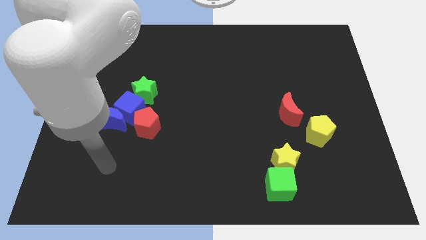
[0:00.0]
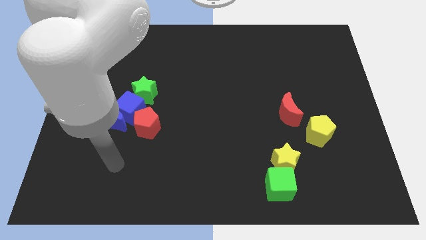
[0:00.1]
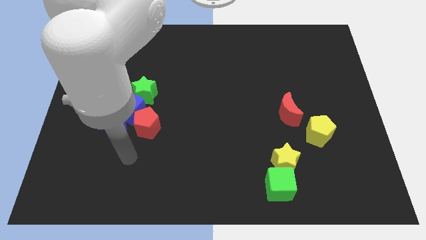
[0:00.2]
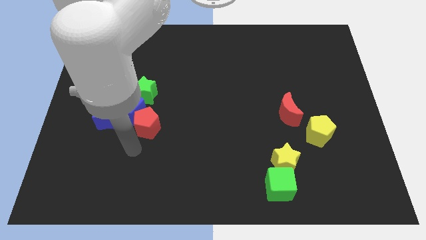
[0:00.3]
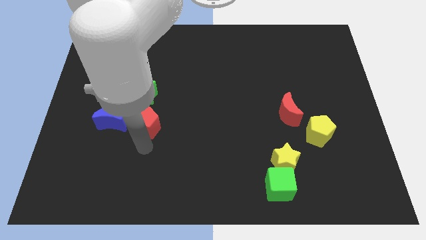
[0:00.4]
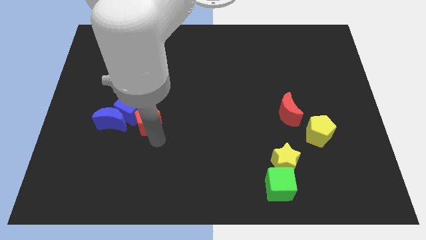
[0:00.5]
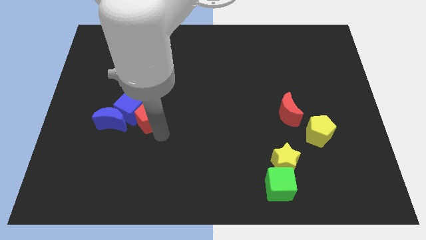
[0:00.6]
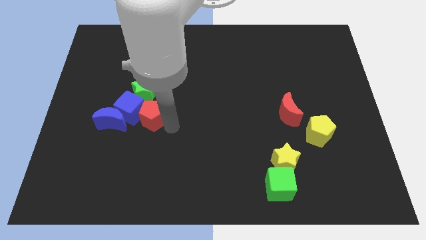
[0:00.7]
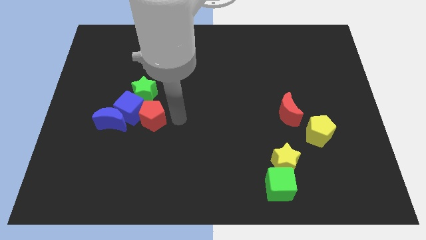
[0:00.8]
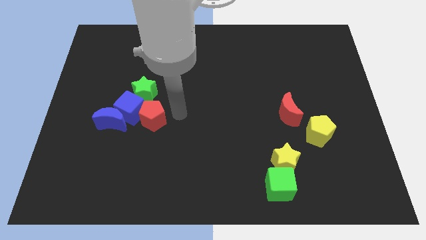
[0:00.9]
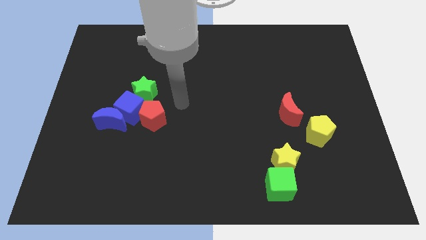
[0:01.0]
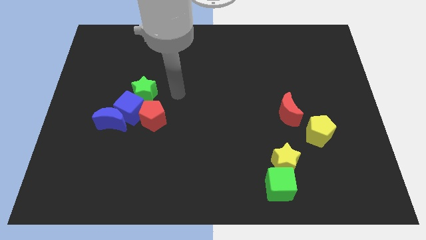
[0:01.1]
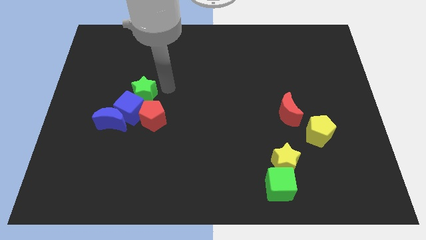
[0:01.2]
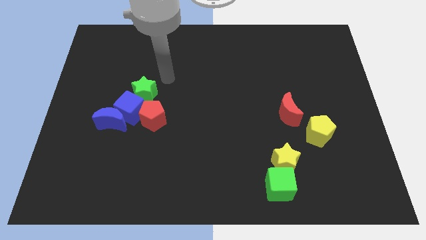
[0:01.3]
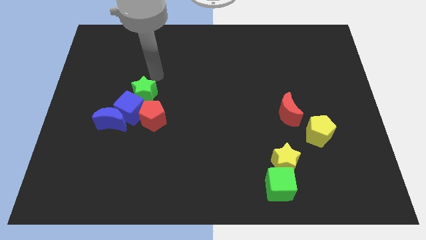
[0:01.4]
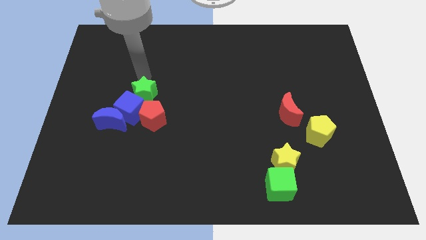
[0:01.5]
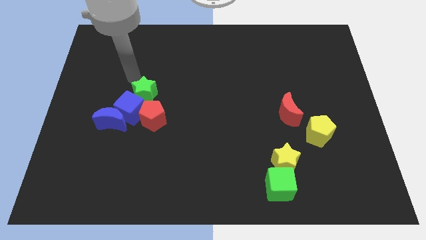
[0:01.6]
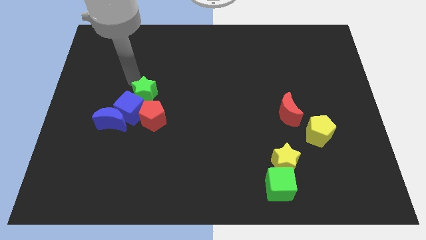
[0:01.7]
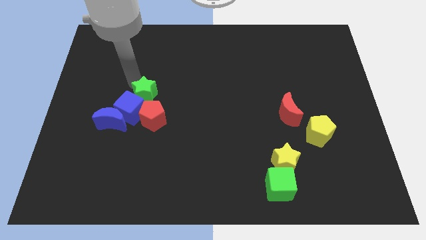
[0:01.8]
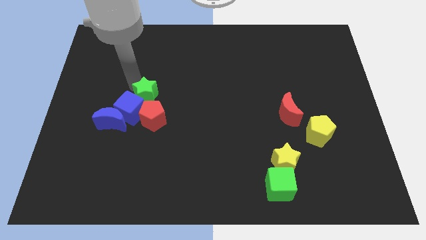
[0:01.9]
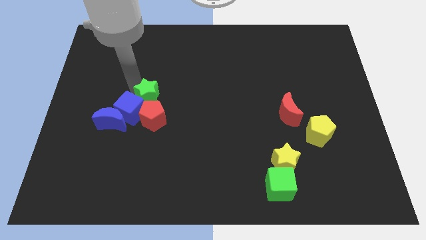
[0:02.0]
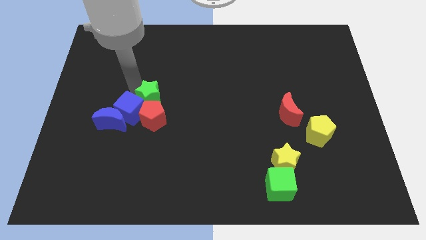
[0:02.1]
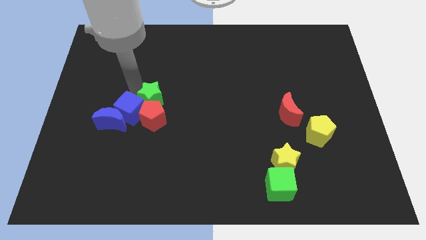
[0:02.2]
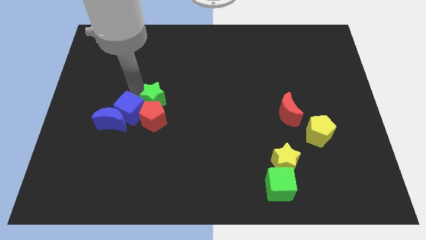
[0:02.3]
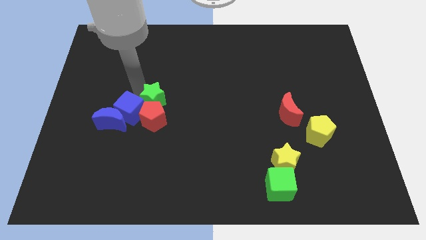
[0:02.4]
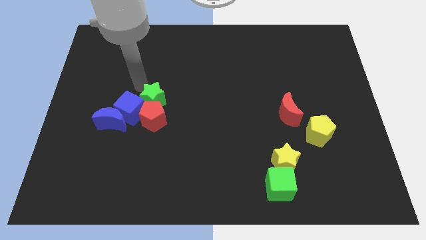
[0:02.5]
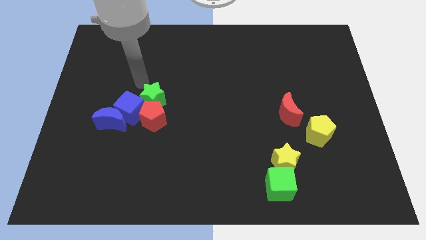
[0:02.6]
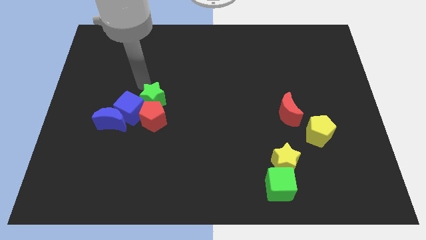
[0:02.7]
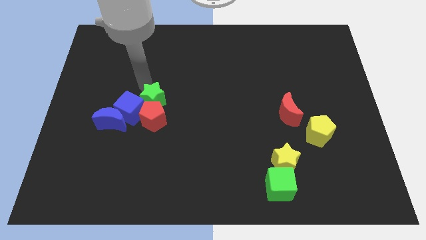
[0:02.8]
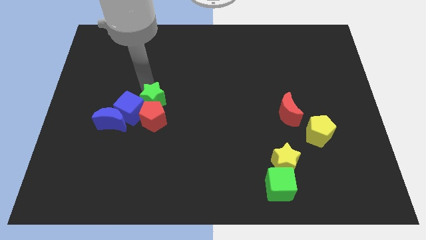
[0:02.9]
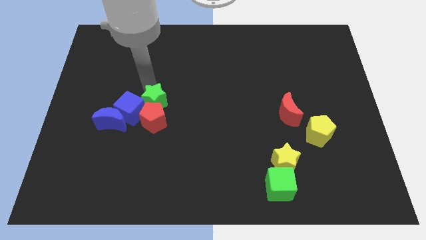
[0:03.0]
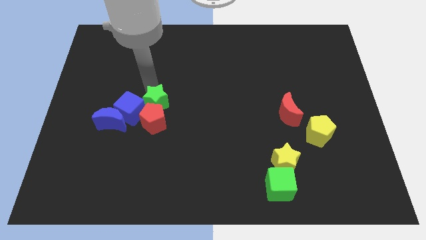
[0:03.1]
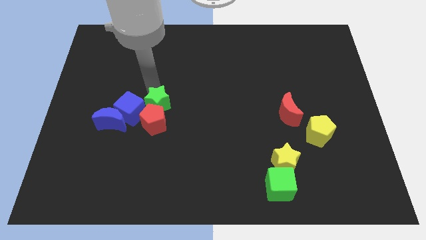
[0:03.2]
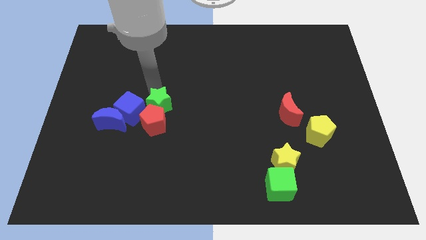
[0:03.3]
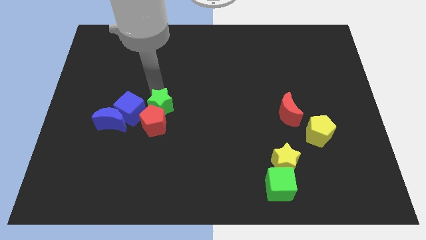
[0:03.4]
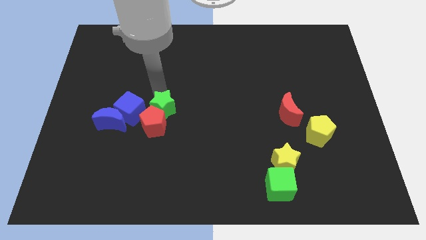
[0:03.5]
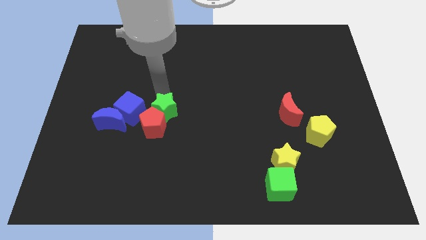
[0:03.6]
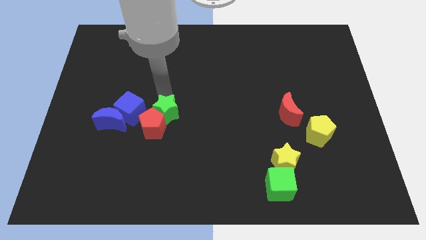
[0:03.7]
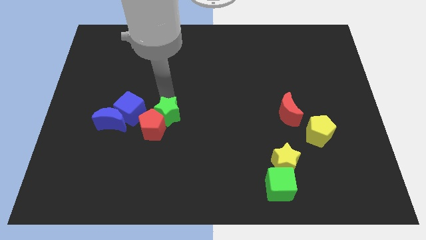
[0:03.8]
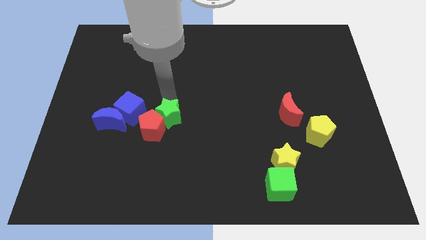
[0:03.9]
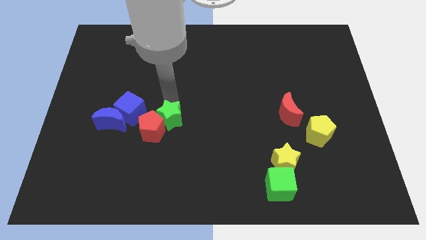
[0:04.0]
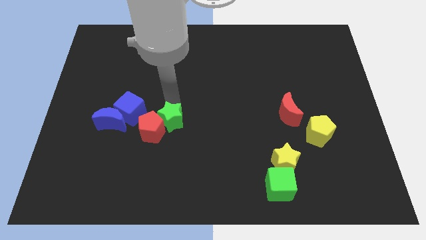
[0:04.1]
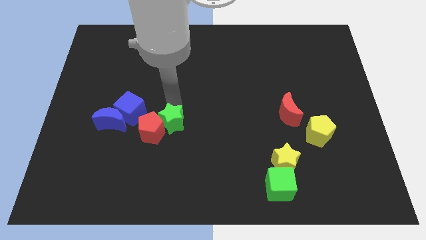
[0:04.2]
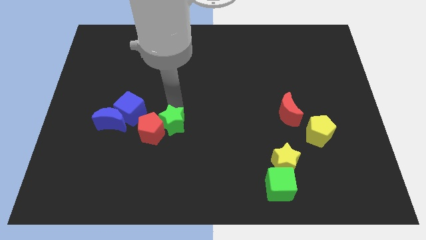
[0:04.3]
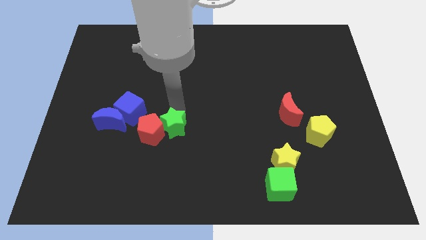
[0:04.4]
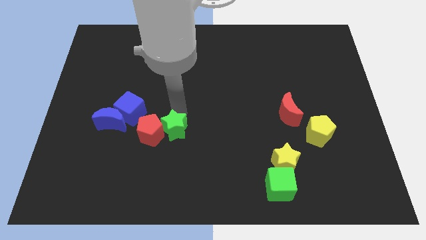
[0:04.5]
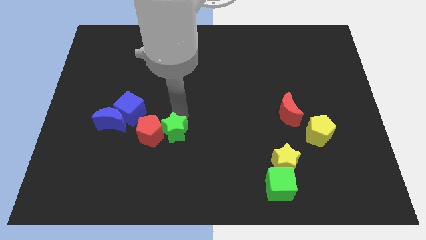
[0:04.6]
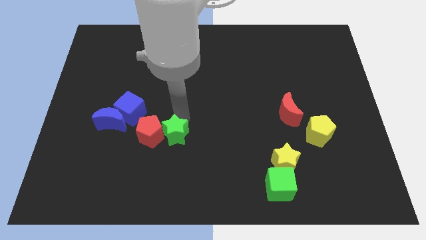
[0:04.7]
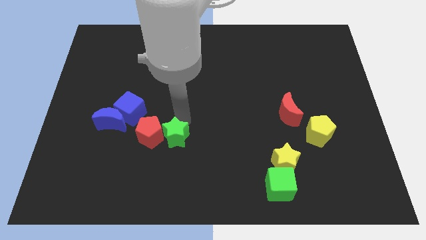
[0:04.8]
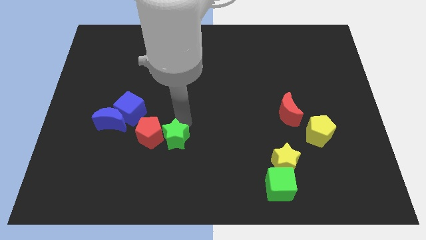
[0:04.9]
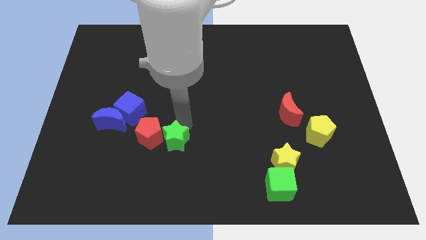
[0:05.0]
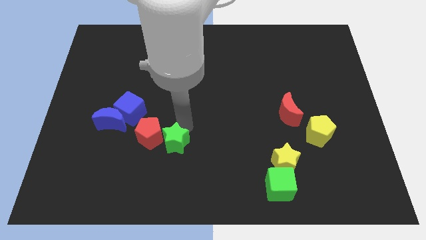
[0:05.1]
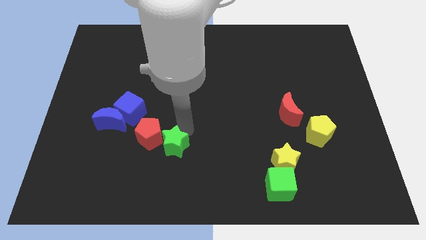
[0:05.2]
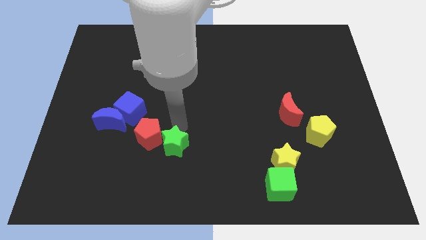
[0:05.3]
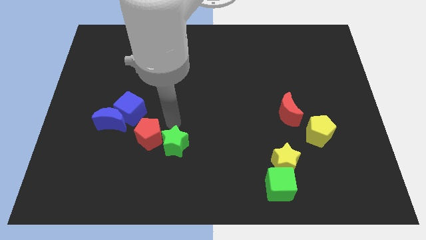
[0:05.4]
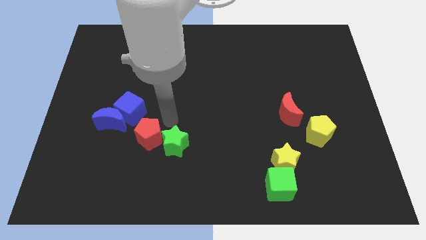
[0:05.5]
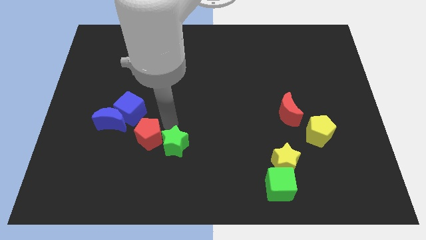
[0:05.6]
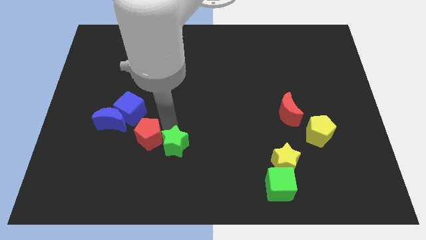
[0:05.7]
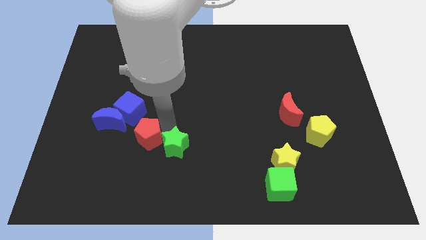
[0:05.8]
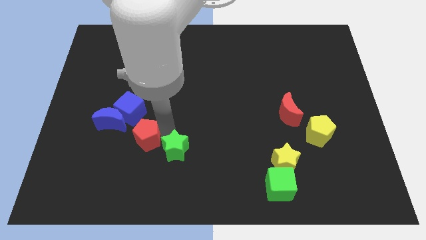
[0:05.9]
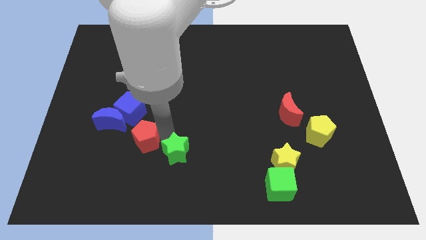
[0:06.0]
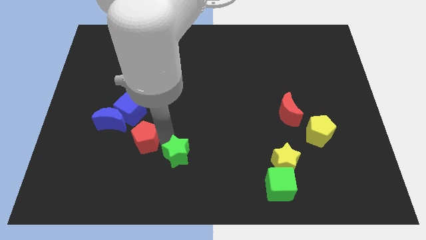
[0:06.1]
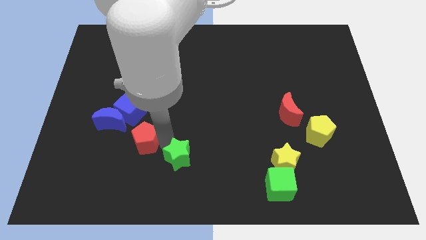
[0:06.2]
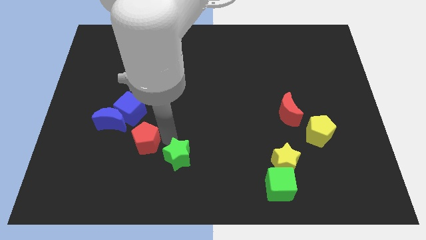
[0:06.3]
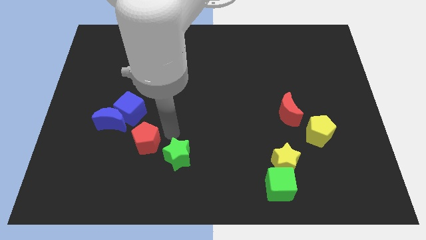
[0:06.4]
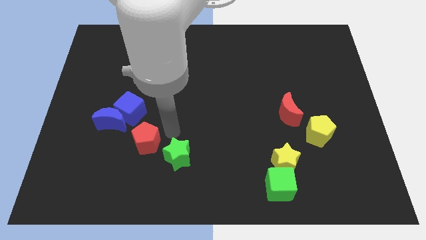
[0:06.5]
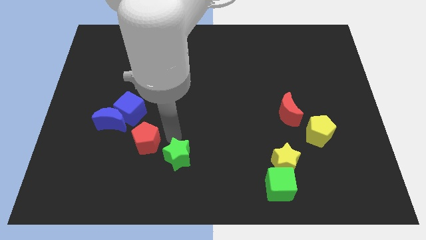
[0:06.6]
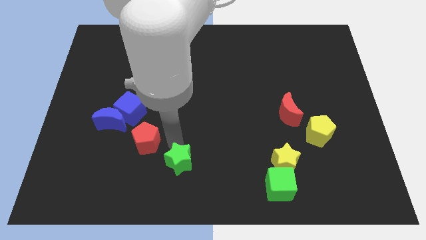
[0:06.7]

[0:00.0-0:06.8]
push the green star to the bottom
